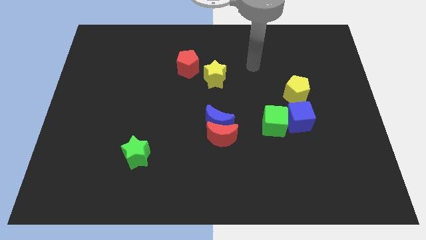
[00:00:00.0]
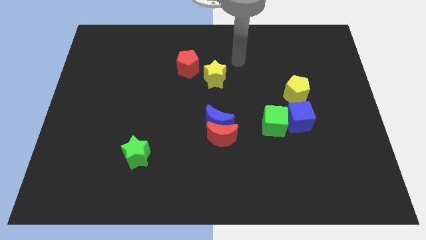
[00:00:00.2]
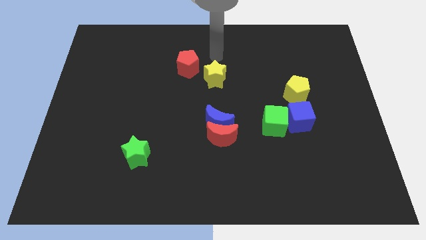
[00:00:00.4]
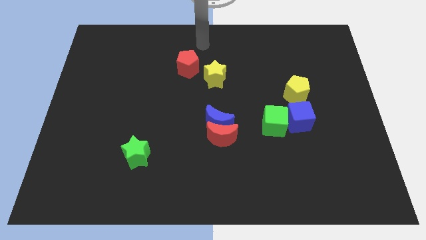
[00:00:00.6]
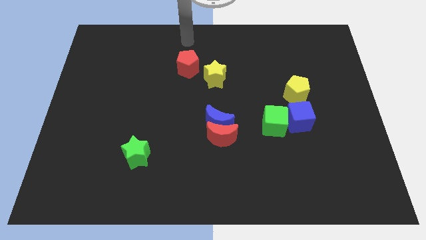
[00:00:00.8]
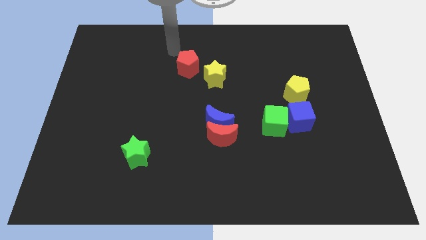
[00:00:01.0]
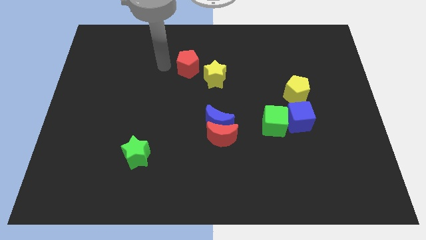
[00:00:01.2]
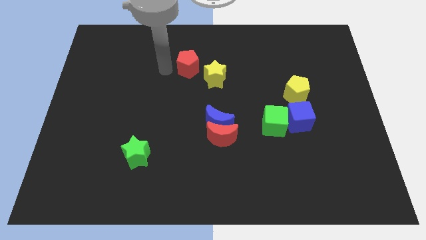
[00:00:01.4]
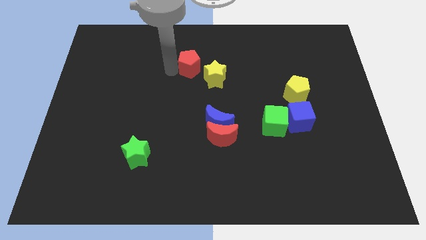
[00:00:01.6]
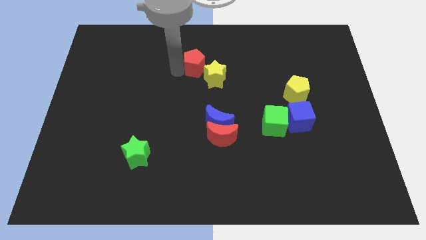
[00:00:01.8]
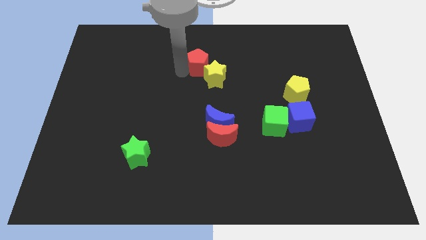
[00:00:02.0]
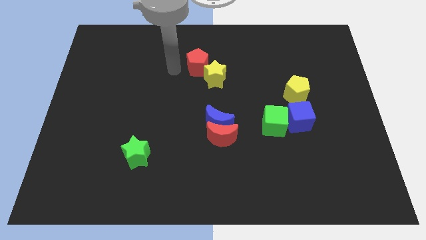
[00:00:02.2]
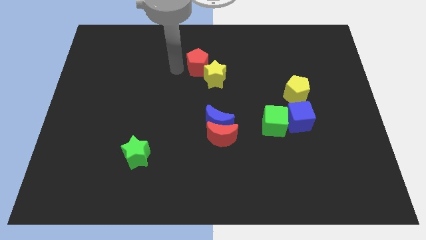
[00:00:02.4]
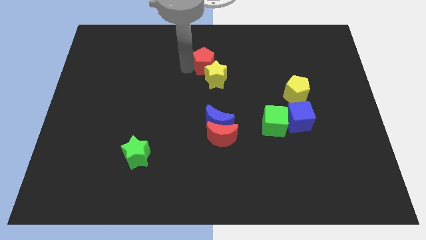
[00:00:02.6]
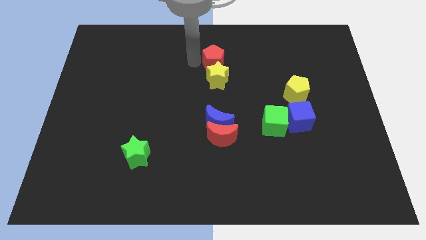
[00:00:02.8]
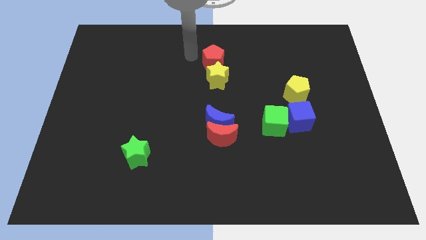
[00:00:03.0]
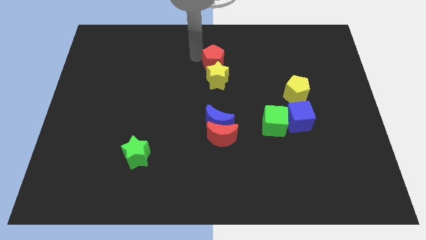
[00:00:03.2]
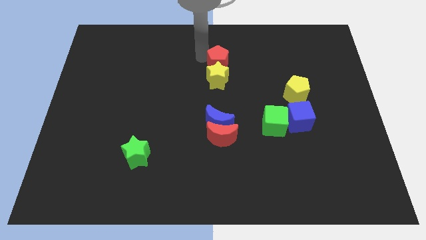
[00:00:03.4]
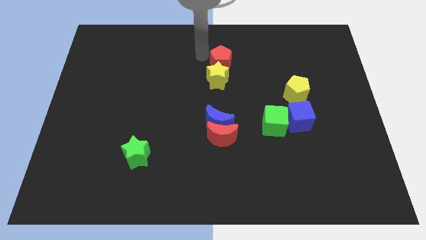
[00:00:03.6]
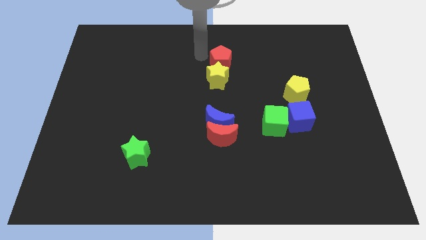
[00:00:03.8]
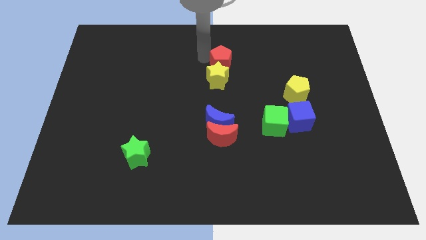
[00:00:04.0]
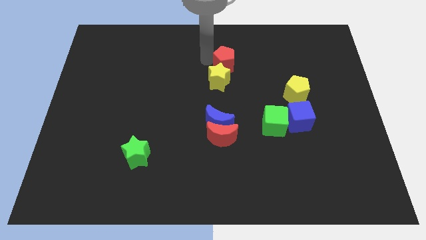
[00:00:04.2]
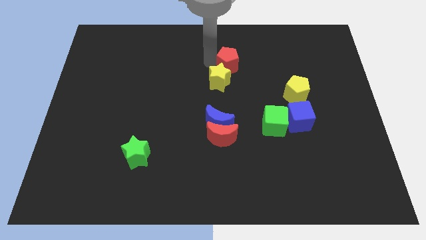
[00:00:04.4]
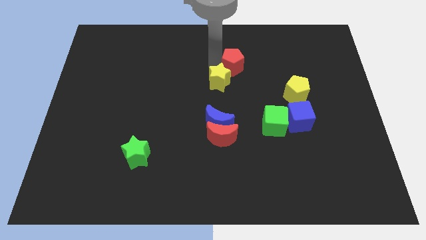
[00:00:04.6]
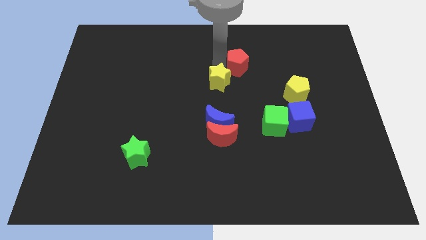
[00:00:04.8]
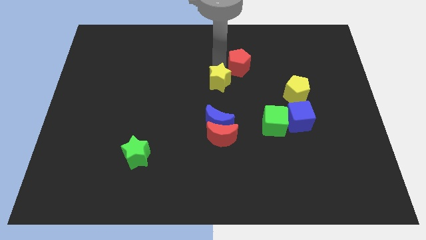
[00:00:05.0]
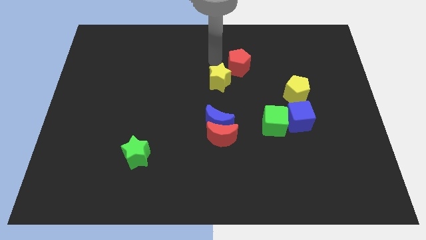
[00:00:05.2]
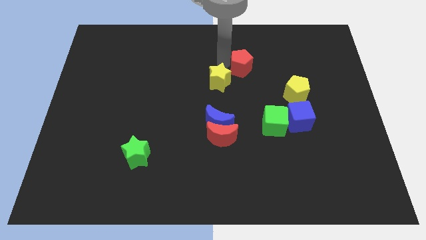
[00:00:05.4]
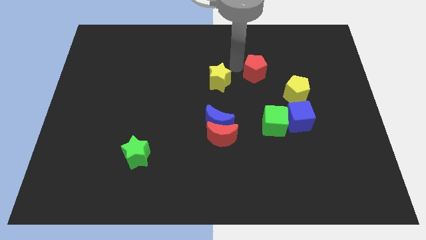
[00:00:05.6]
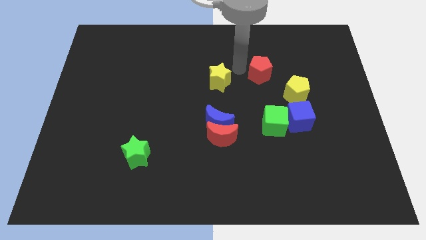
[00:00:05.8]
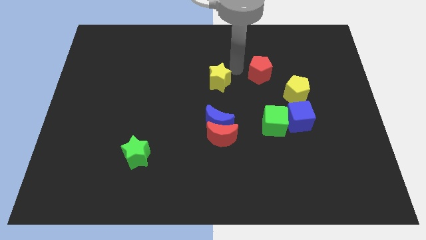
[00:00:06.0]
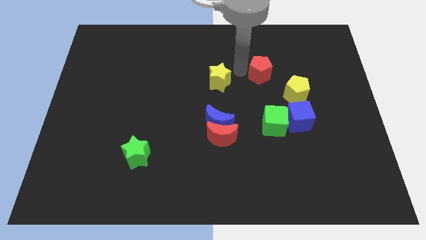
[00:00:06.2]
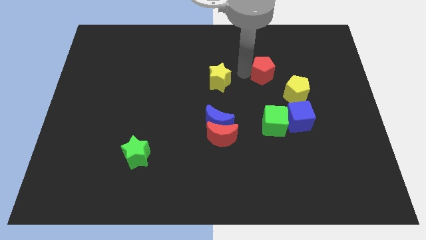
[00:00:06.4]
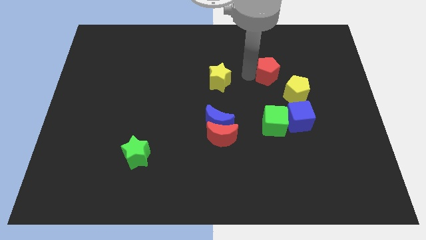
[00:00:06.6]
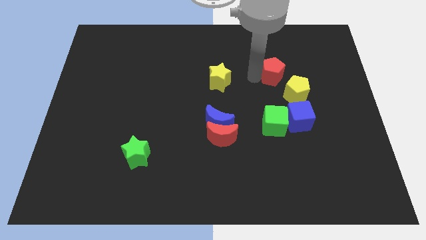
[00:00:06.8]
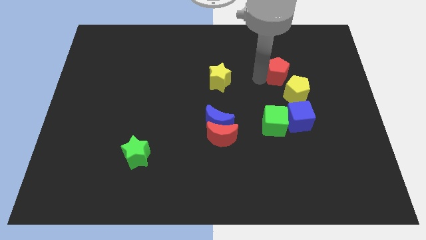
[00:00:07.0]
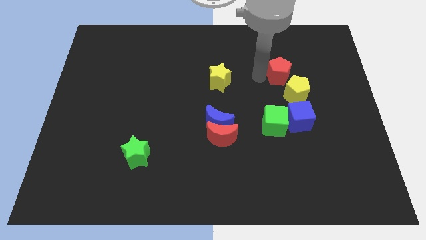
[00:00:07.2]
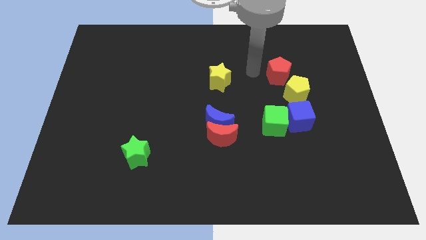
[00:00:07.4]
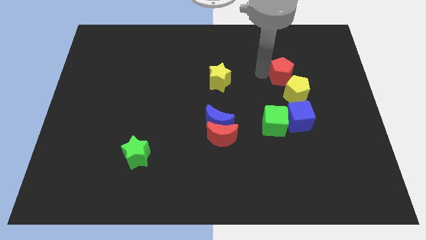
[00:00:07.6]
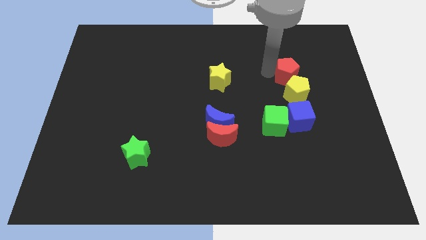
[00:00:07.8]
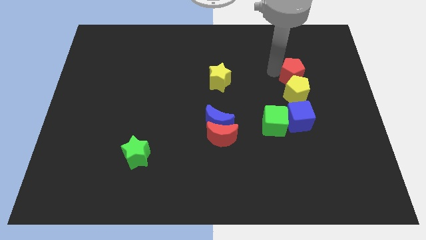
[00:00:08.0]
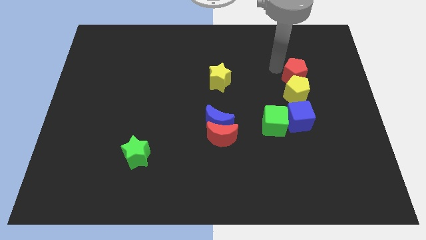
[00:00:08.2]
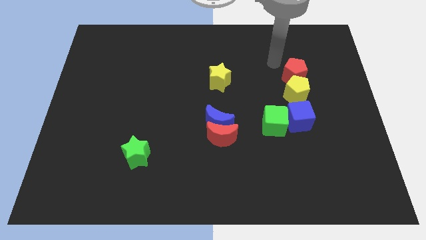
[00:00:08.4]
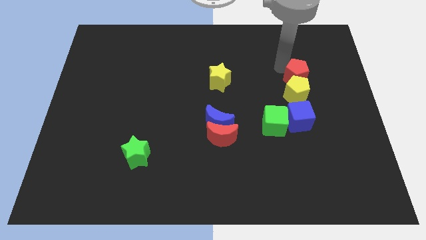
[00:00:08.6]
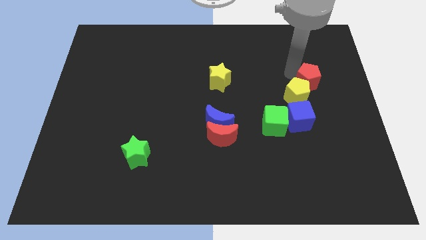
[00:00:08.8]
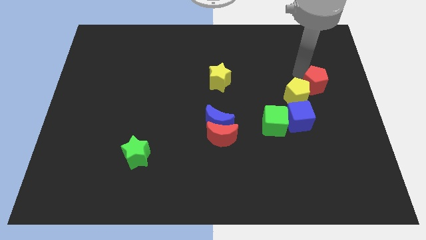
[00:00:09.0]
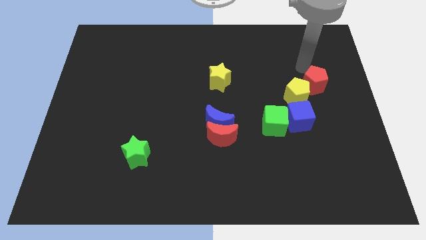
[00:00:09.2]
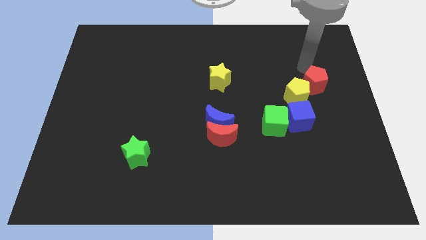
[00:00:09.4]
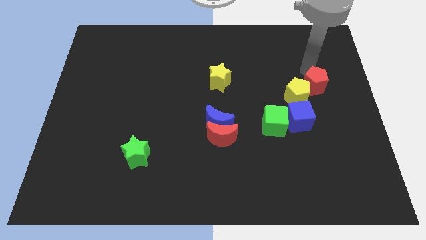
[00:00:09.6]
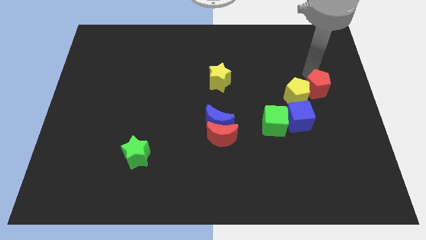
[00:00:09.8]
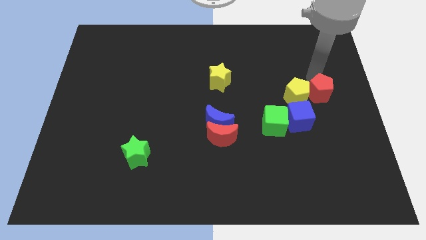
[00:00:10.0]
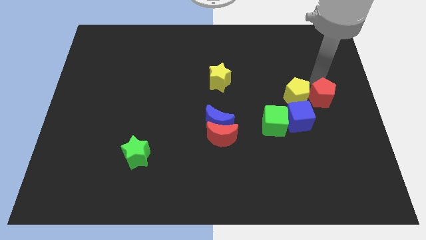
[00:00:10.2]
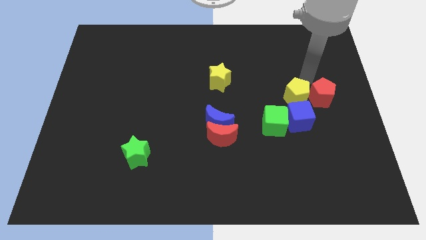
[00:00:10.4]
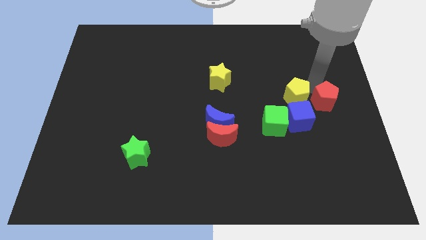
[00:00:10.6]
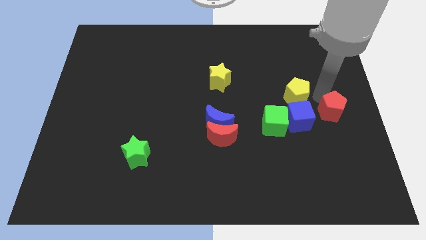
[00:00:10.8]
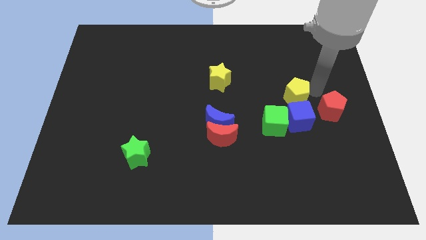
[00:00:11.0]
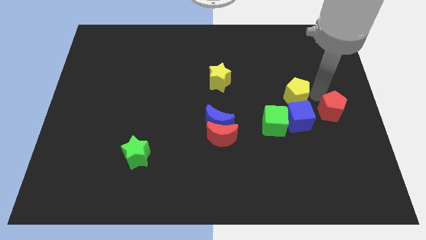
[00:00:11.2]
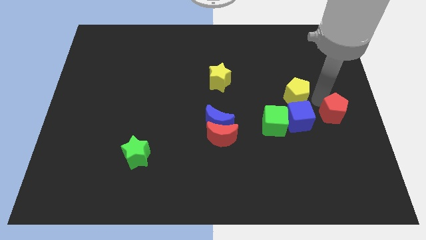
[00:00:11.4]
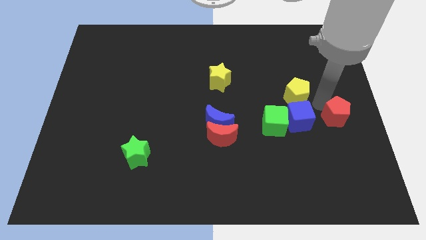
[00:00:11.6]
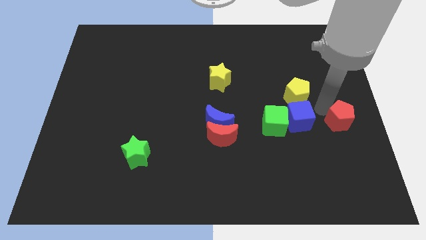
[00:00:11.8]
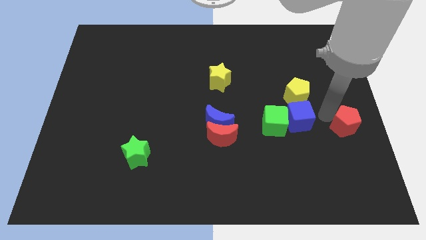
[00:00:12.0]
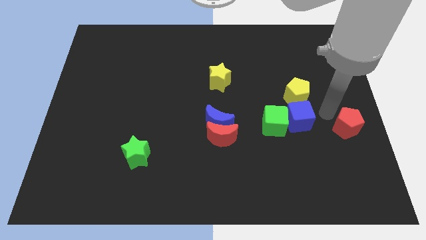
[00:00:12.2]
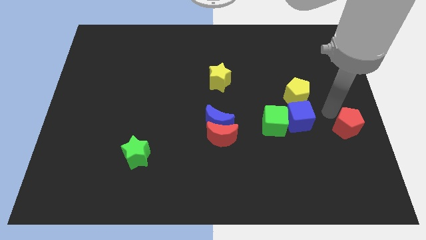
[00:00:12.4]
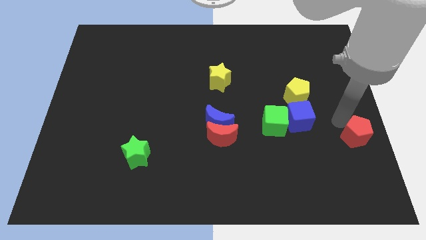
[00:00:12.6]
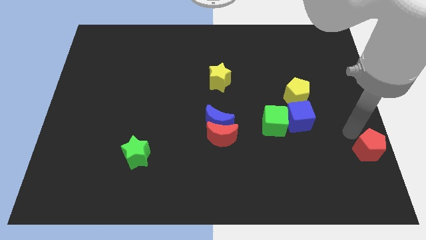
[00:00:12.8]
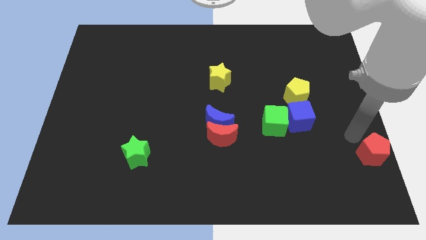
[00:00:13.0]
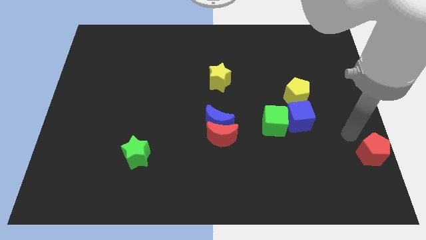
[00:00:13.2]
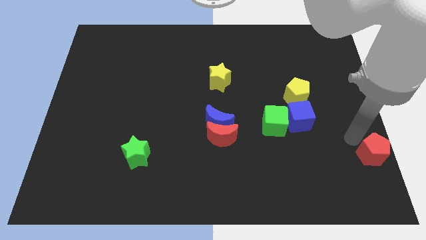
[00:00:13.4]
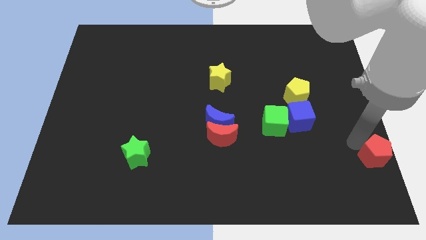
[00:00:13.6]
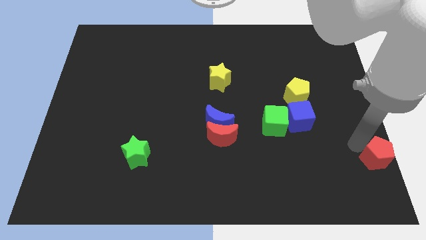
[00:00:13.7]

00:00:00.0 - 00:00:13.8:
move the red pentagon to the bottom right
